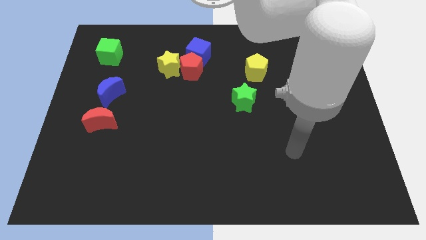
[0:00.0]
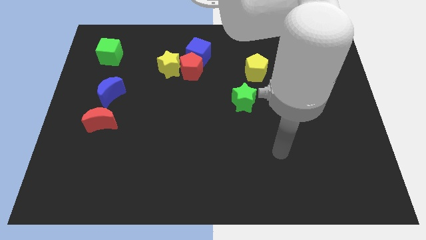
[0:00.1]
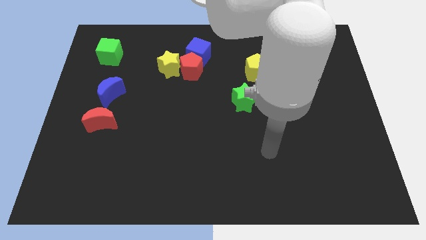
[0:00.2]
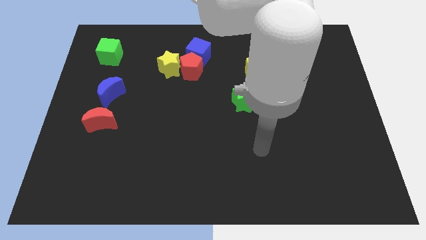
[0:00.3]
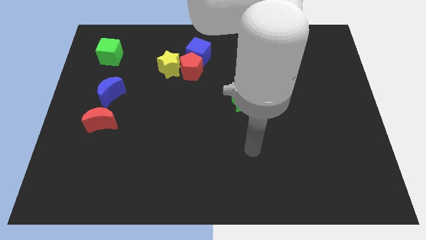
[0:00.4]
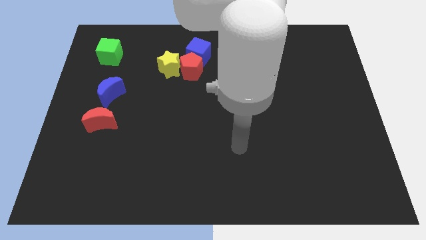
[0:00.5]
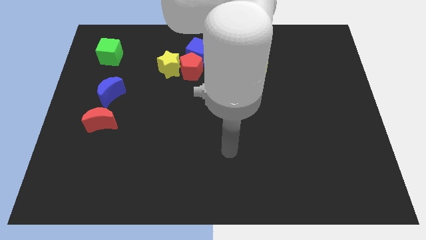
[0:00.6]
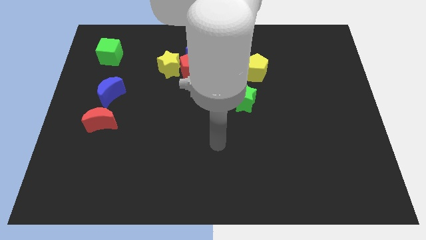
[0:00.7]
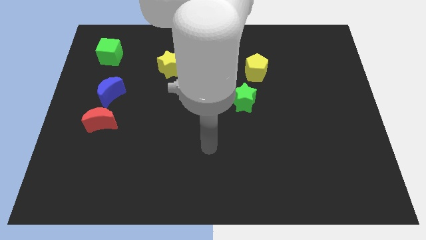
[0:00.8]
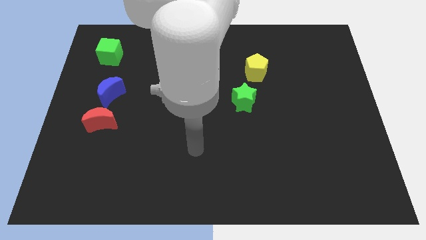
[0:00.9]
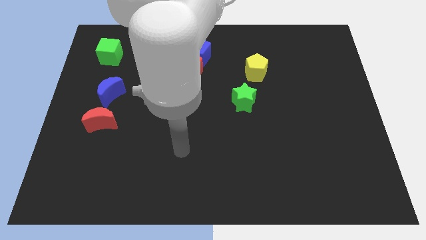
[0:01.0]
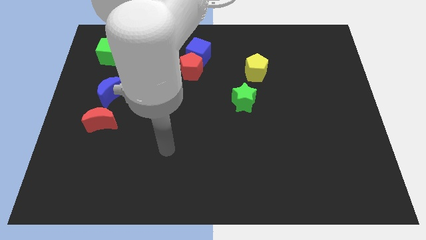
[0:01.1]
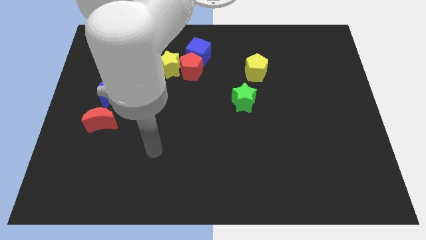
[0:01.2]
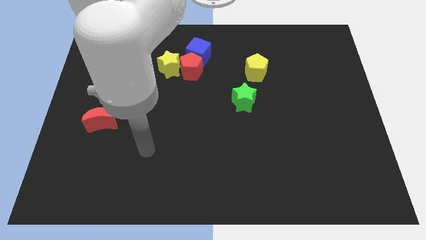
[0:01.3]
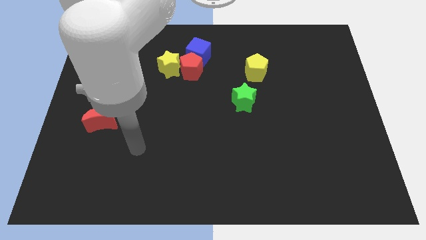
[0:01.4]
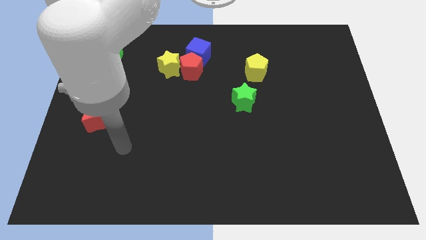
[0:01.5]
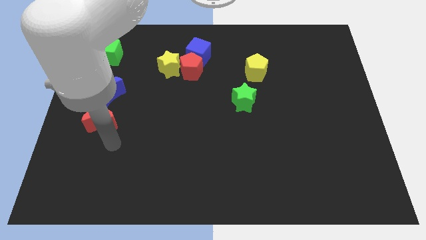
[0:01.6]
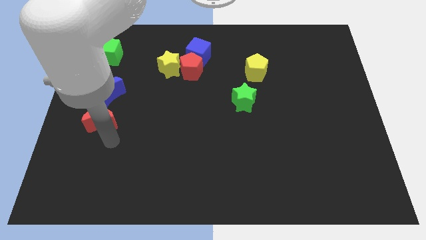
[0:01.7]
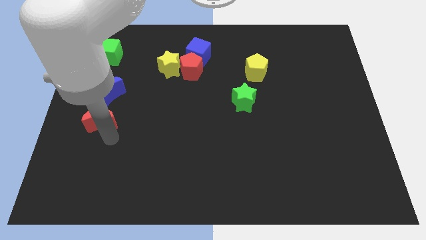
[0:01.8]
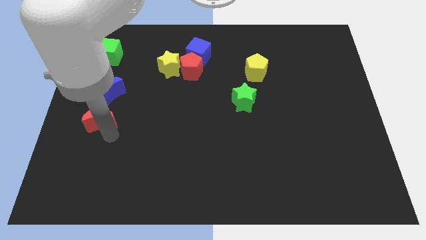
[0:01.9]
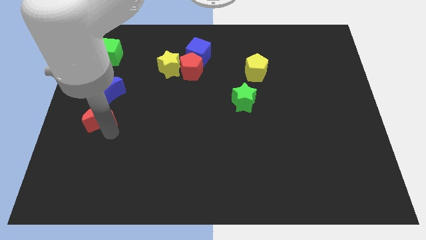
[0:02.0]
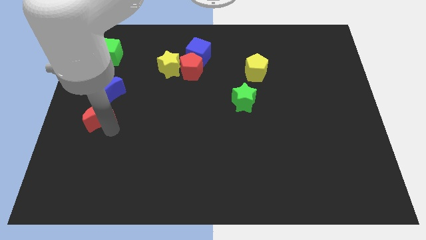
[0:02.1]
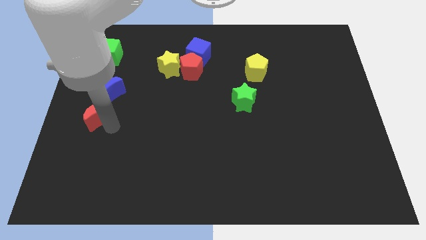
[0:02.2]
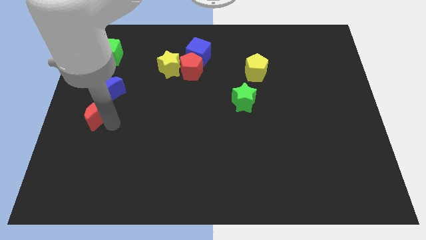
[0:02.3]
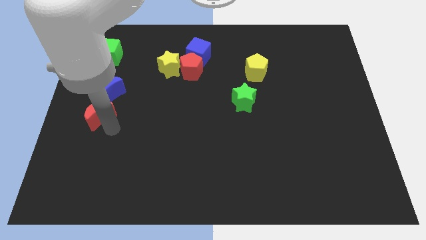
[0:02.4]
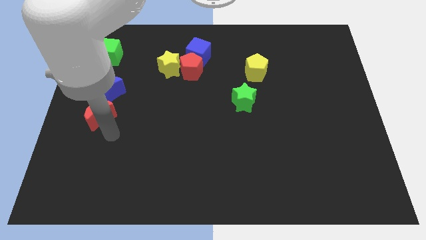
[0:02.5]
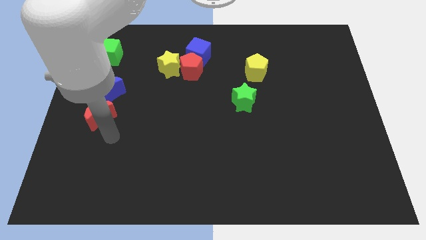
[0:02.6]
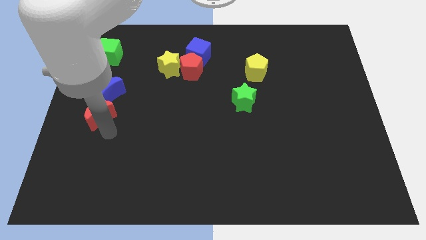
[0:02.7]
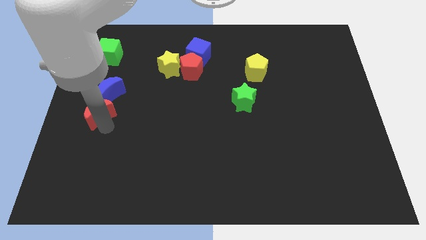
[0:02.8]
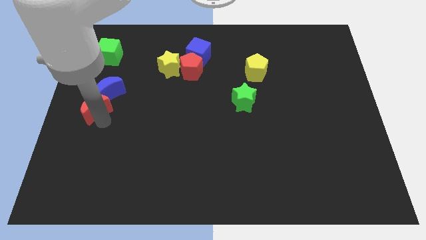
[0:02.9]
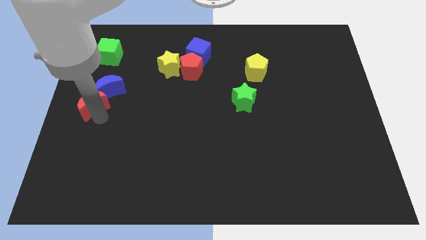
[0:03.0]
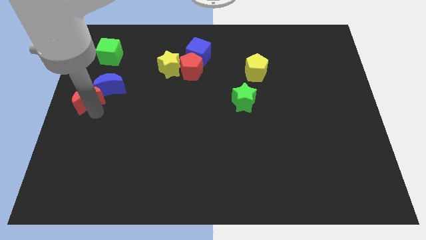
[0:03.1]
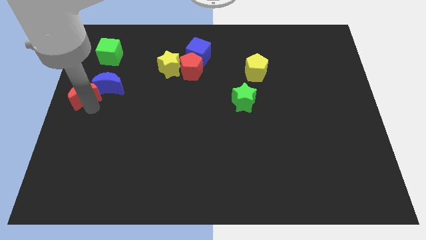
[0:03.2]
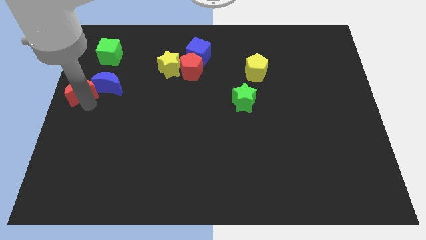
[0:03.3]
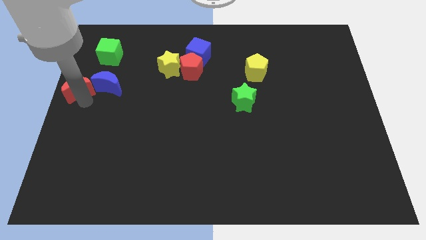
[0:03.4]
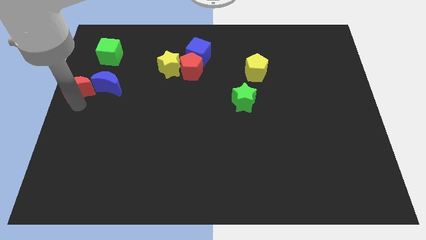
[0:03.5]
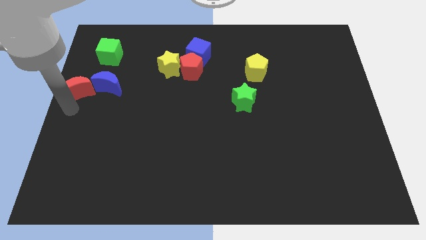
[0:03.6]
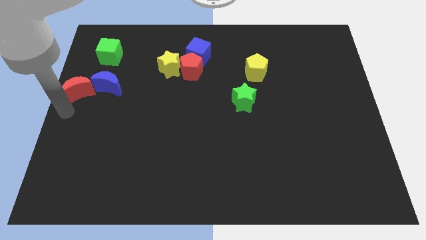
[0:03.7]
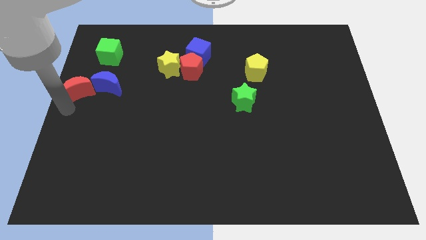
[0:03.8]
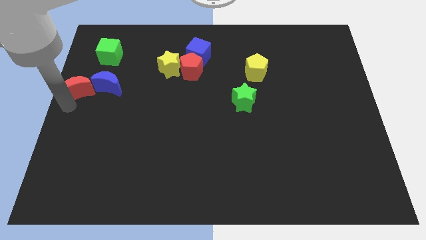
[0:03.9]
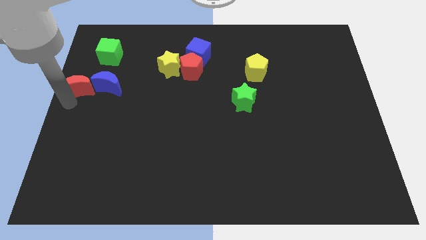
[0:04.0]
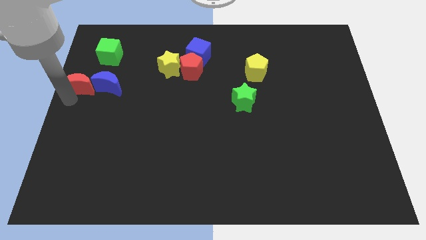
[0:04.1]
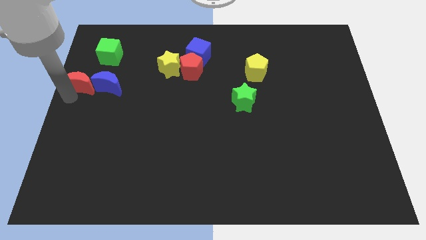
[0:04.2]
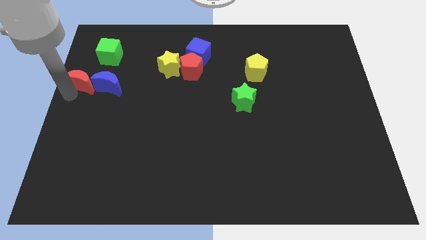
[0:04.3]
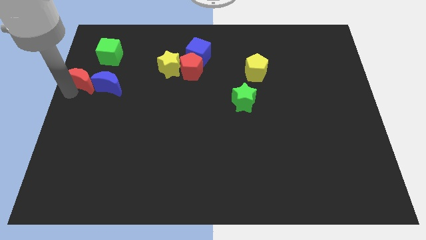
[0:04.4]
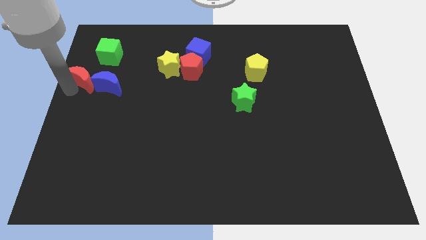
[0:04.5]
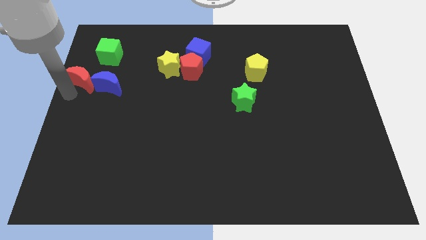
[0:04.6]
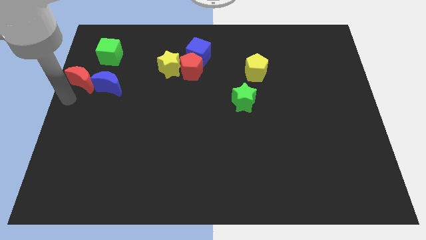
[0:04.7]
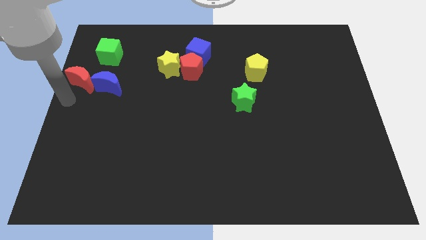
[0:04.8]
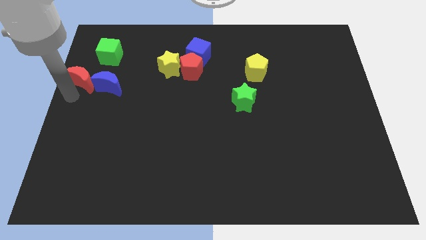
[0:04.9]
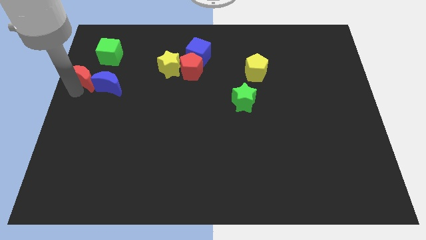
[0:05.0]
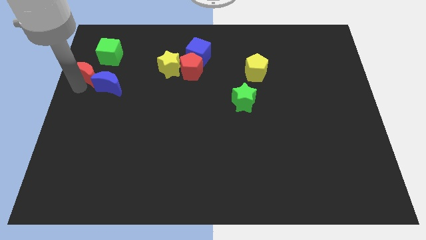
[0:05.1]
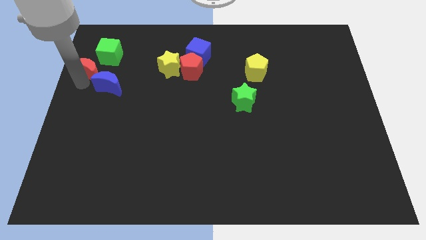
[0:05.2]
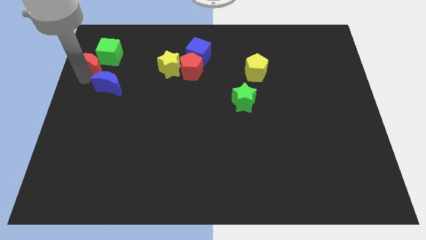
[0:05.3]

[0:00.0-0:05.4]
push the red moon close to the green cube

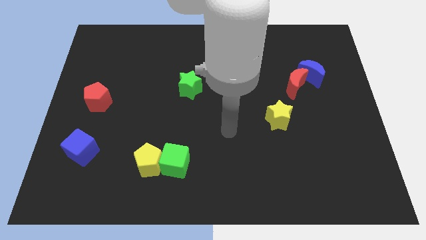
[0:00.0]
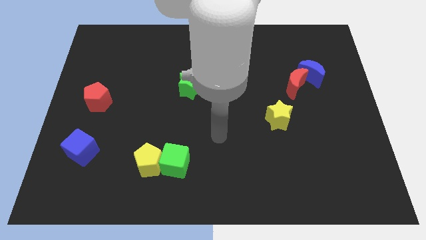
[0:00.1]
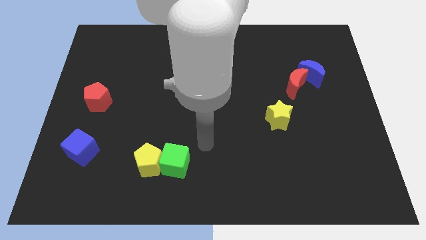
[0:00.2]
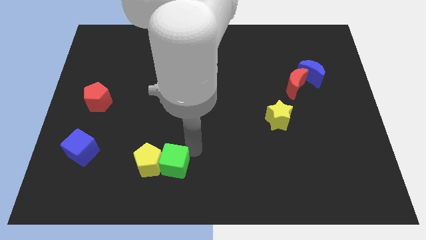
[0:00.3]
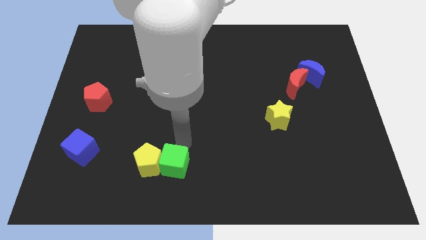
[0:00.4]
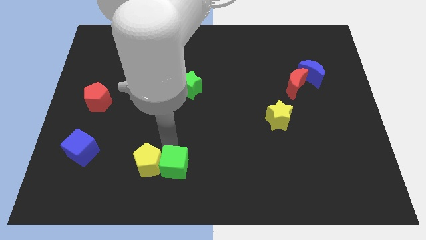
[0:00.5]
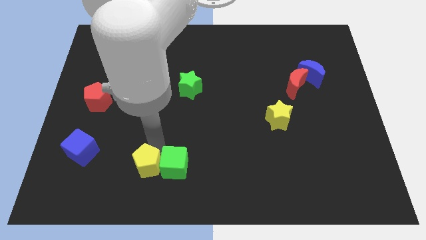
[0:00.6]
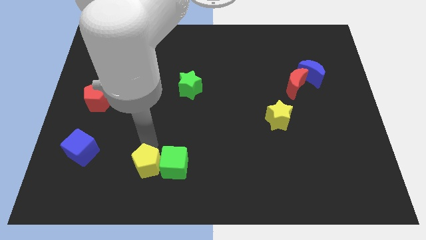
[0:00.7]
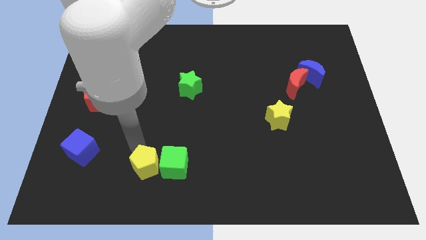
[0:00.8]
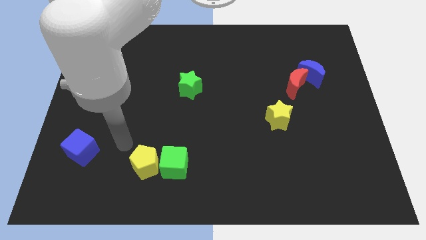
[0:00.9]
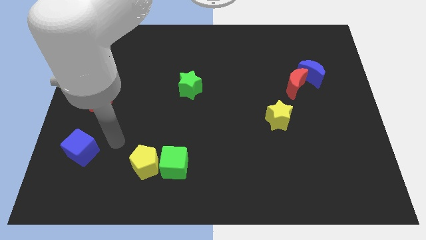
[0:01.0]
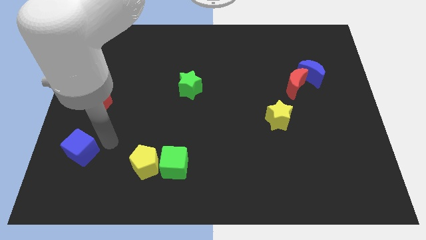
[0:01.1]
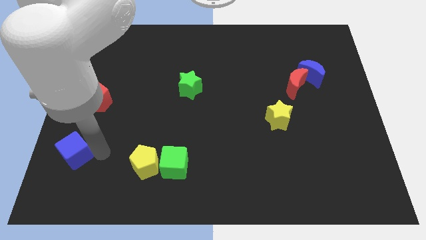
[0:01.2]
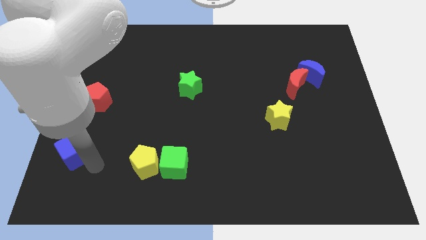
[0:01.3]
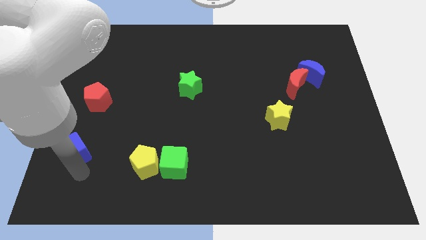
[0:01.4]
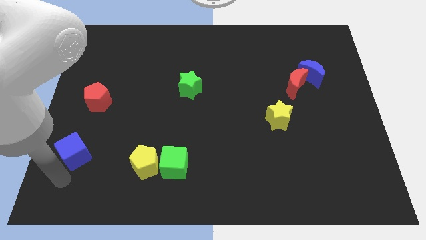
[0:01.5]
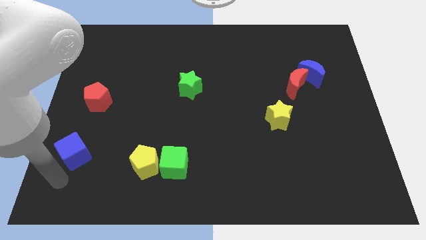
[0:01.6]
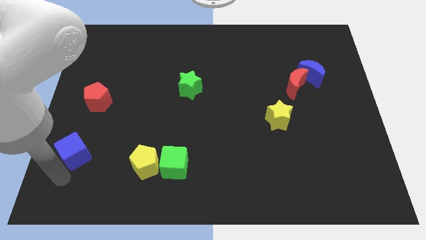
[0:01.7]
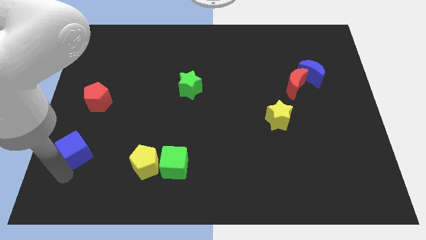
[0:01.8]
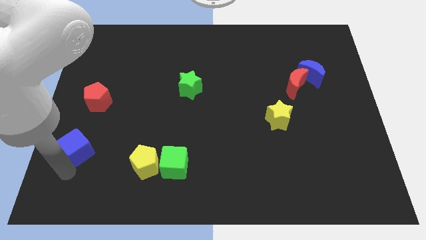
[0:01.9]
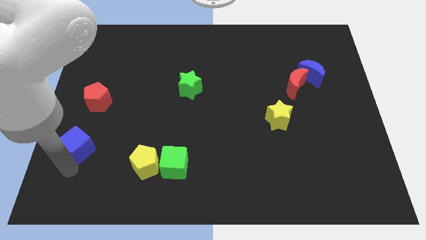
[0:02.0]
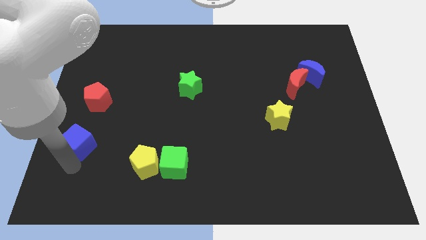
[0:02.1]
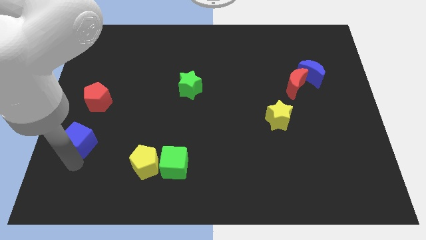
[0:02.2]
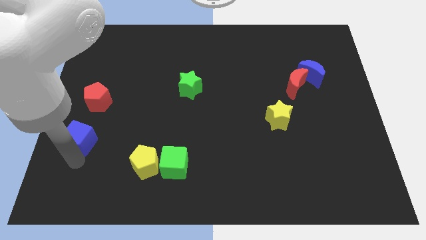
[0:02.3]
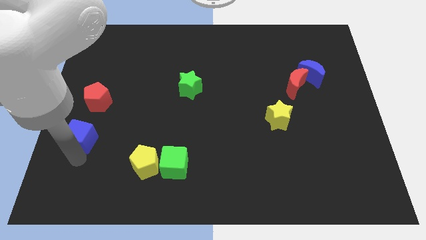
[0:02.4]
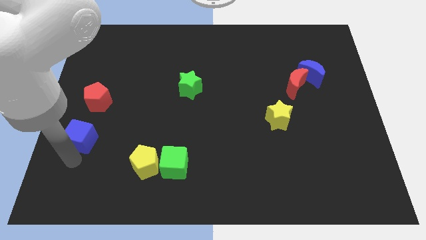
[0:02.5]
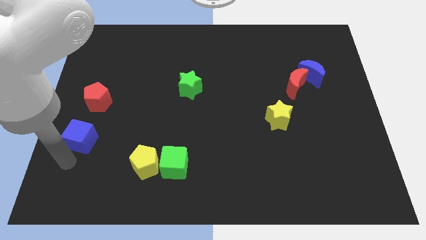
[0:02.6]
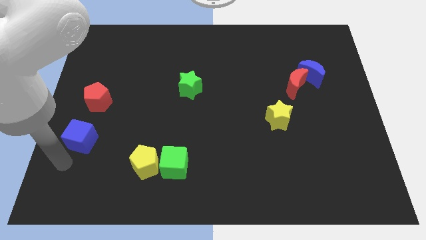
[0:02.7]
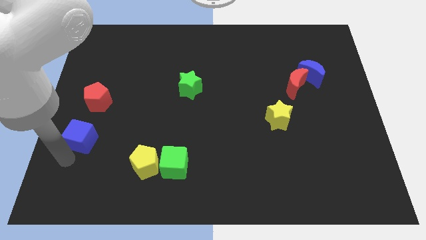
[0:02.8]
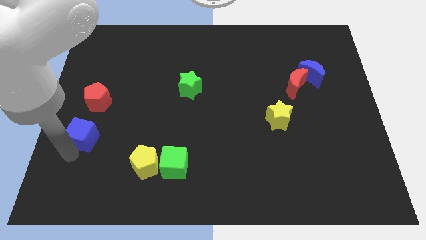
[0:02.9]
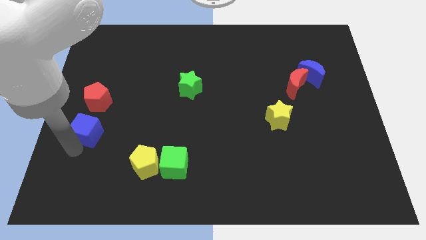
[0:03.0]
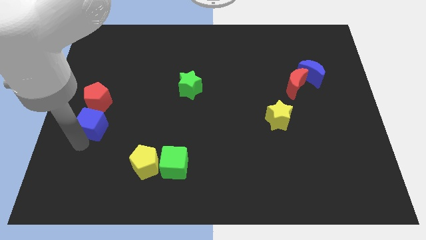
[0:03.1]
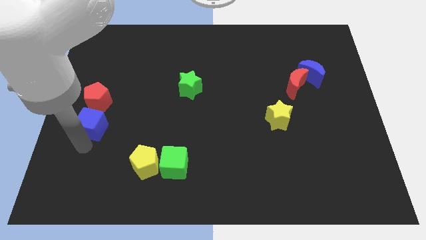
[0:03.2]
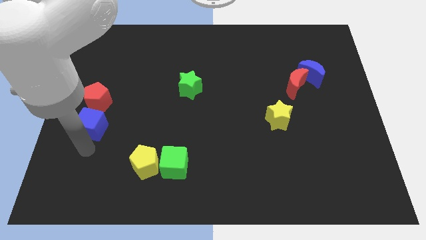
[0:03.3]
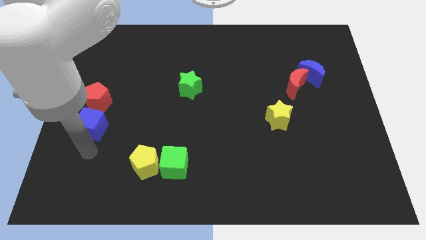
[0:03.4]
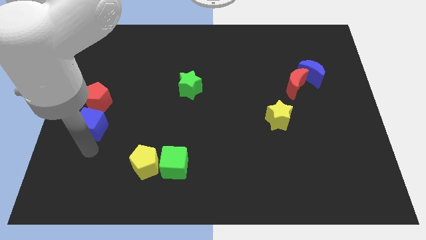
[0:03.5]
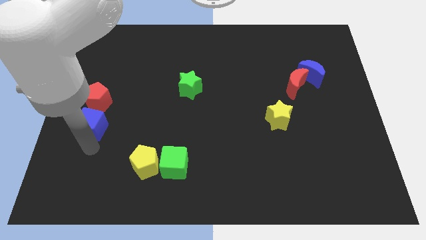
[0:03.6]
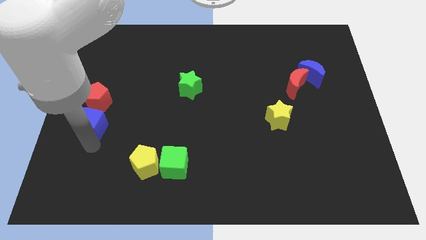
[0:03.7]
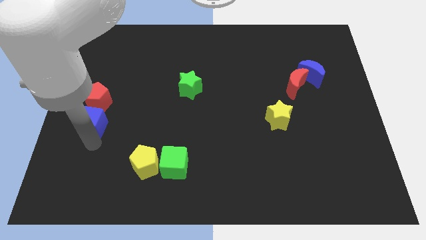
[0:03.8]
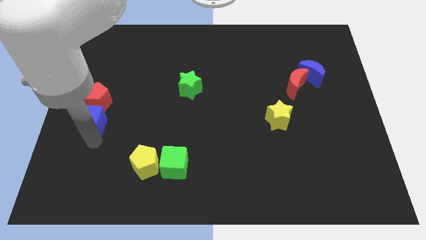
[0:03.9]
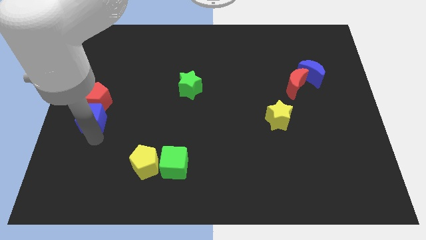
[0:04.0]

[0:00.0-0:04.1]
move the blue cube close to the red pentagon
